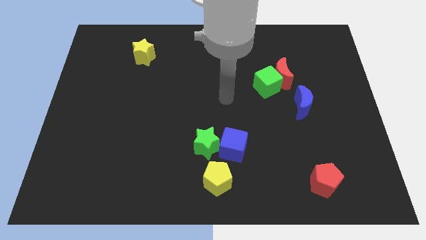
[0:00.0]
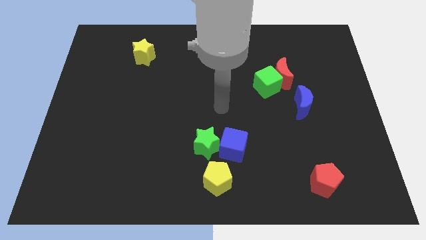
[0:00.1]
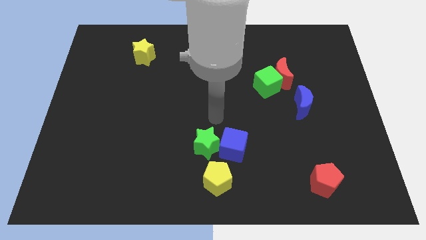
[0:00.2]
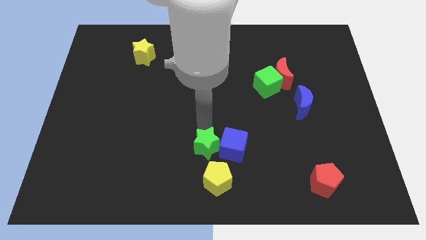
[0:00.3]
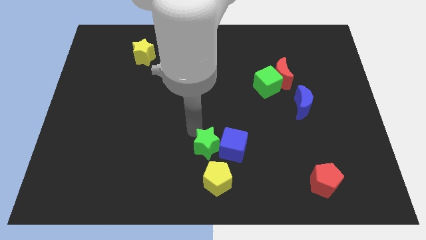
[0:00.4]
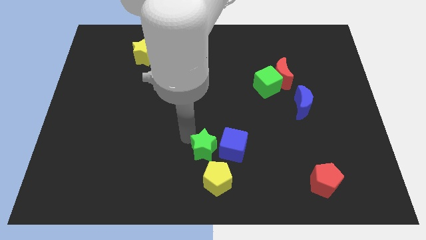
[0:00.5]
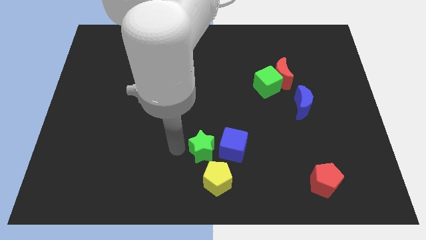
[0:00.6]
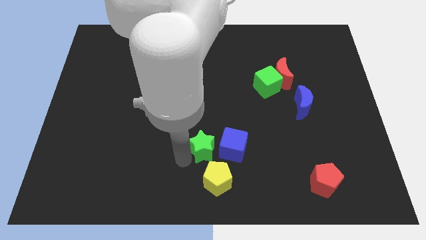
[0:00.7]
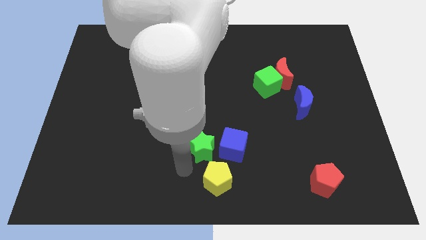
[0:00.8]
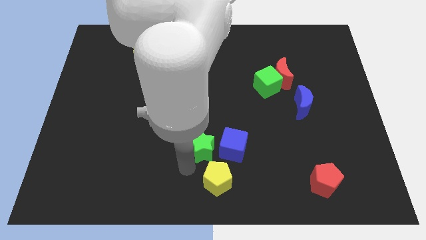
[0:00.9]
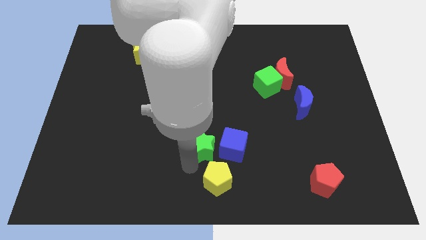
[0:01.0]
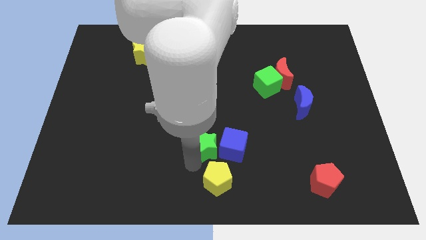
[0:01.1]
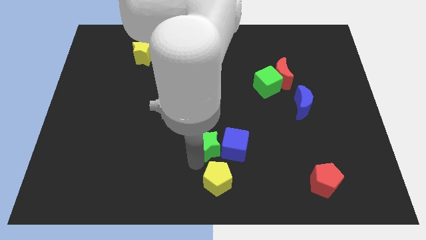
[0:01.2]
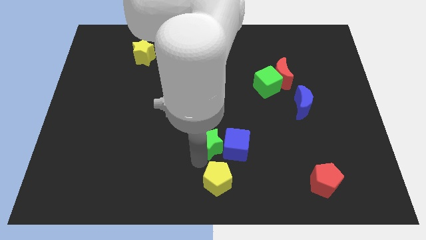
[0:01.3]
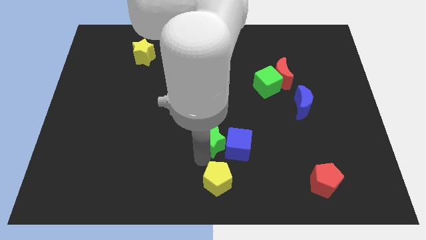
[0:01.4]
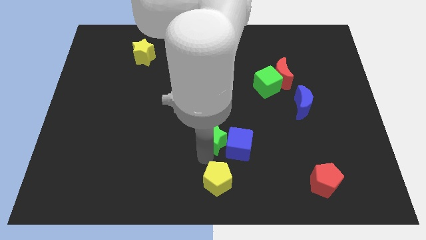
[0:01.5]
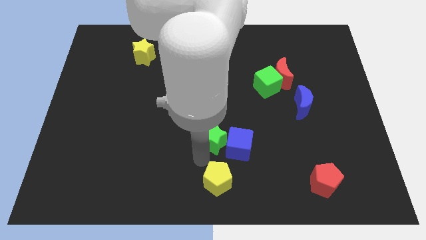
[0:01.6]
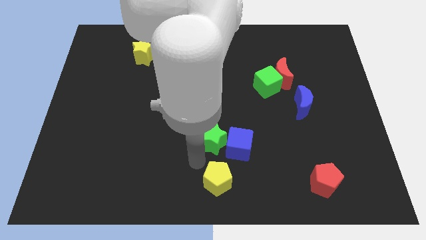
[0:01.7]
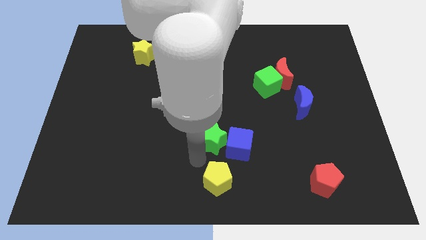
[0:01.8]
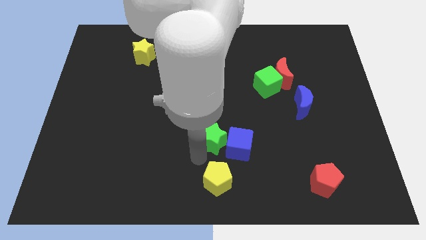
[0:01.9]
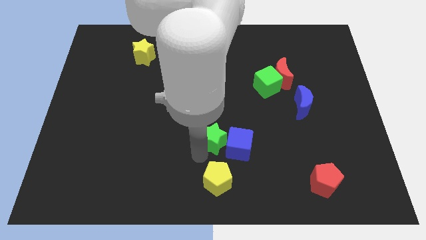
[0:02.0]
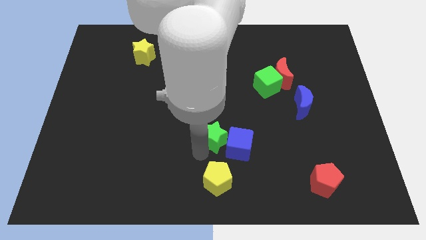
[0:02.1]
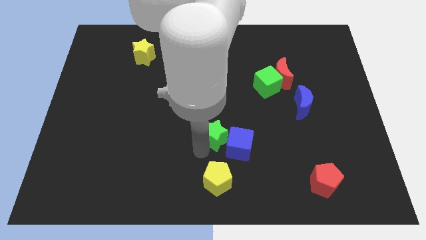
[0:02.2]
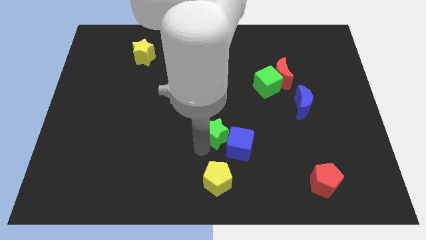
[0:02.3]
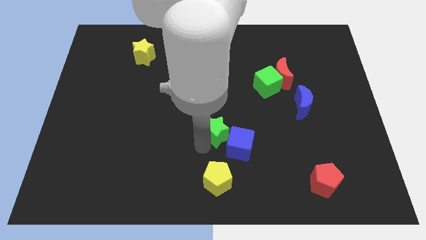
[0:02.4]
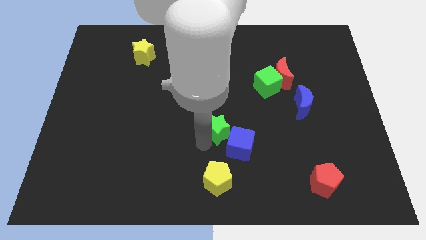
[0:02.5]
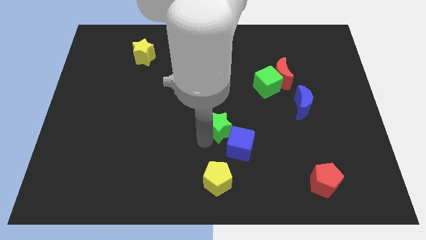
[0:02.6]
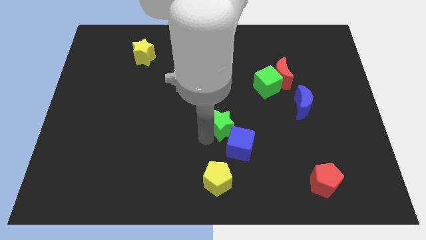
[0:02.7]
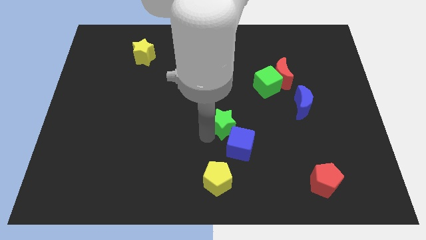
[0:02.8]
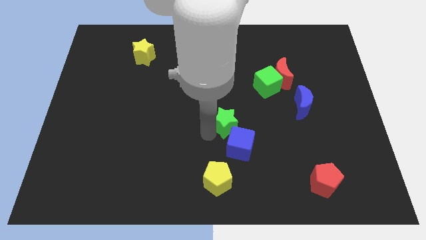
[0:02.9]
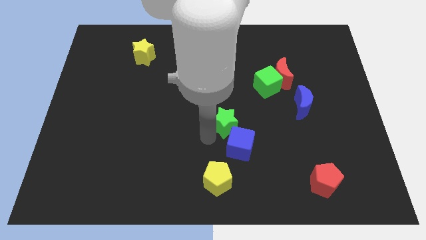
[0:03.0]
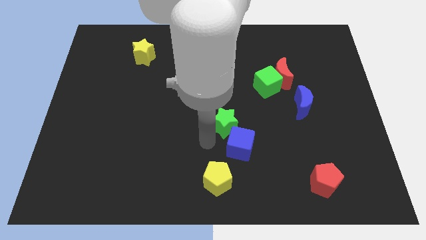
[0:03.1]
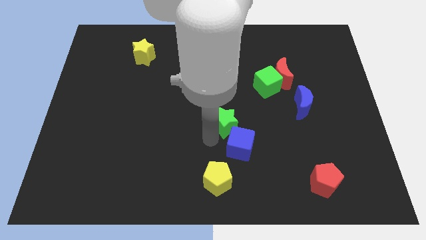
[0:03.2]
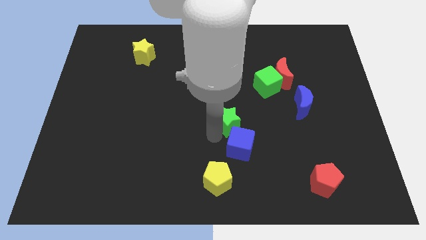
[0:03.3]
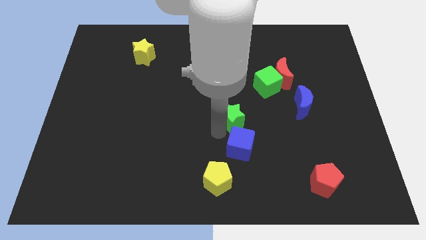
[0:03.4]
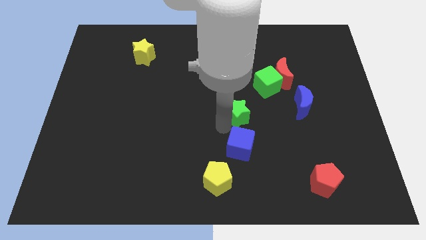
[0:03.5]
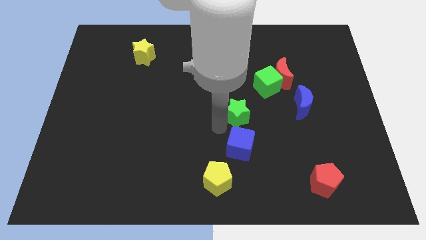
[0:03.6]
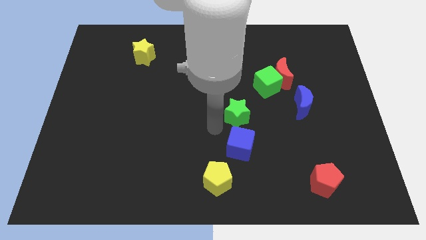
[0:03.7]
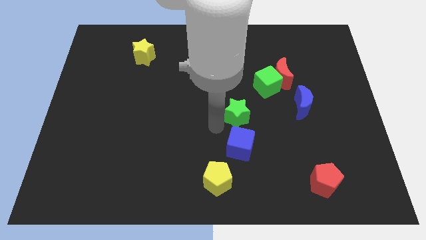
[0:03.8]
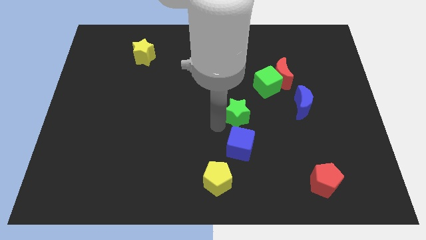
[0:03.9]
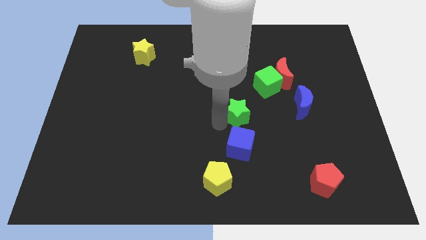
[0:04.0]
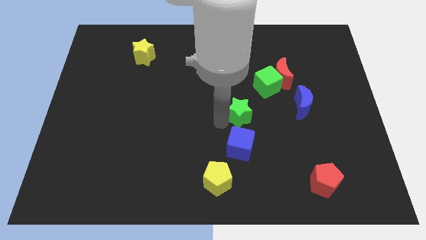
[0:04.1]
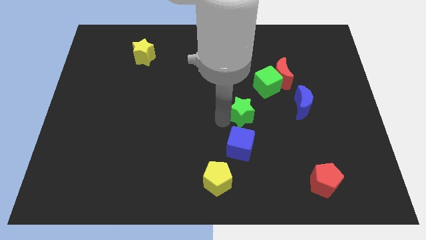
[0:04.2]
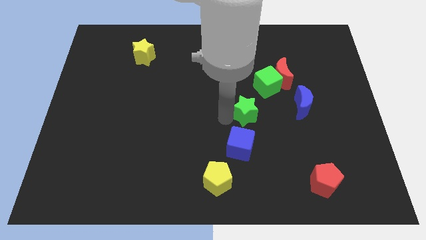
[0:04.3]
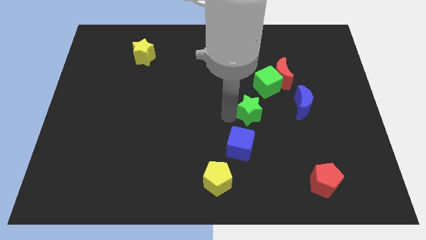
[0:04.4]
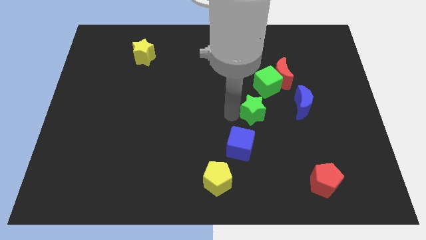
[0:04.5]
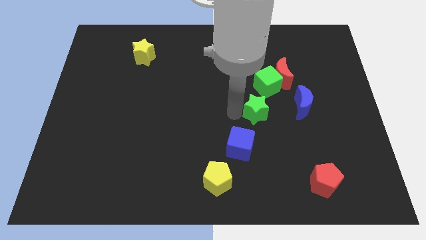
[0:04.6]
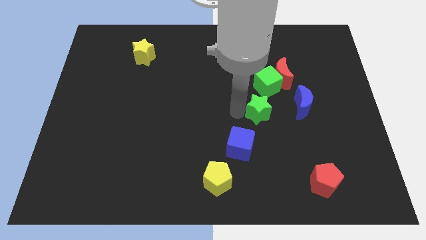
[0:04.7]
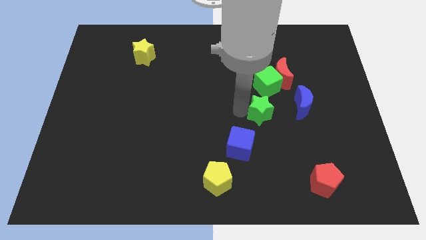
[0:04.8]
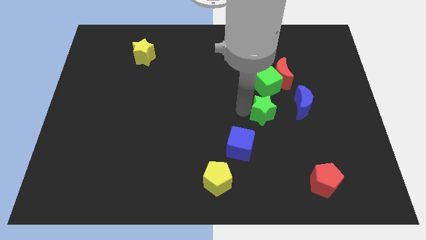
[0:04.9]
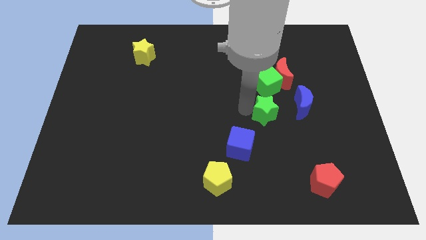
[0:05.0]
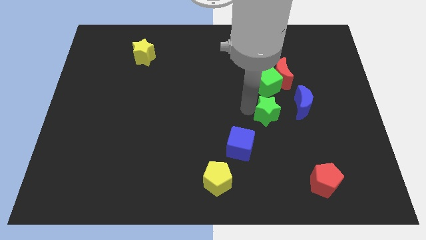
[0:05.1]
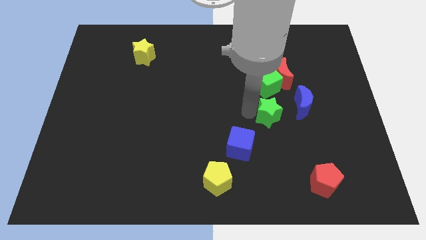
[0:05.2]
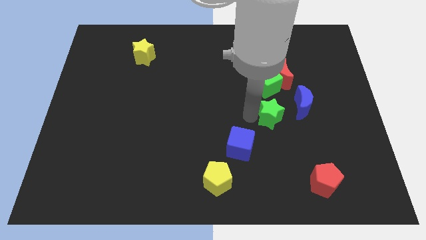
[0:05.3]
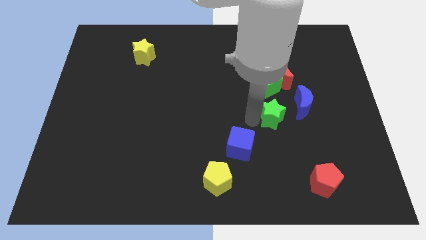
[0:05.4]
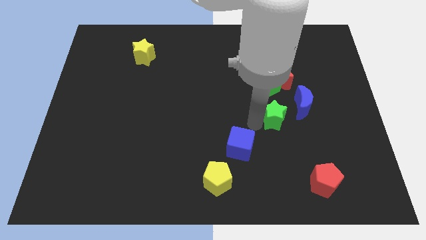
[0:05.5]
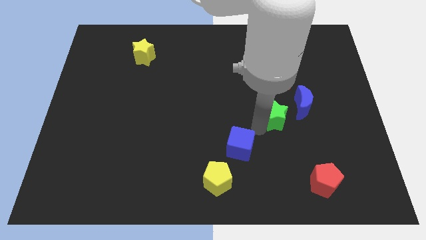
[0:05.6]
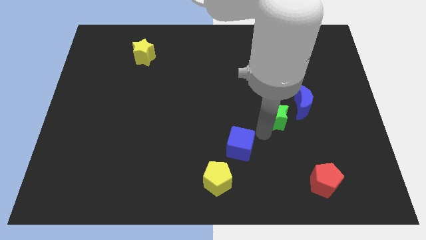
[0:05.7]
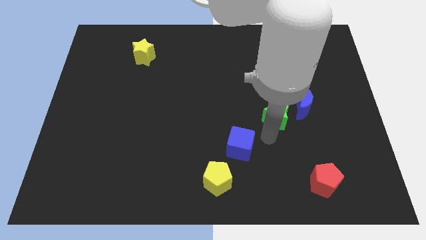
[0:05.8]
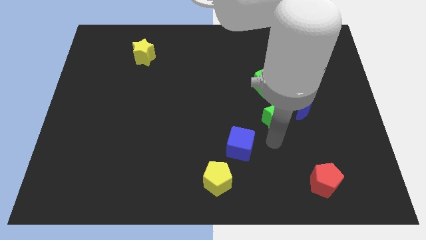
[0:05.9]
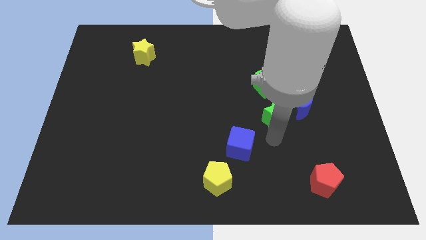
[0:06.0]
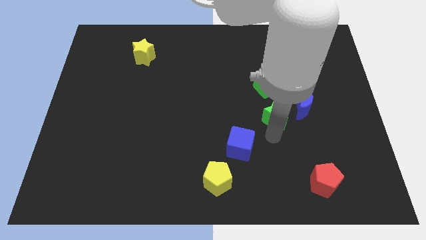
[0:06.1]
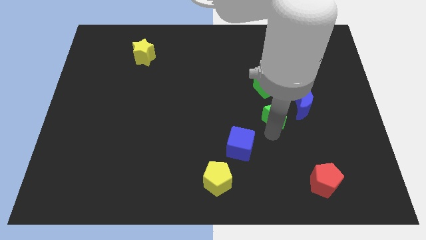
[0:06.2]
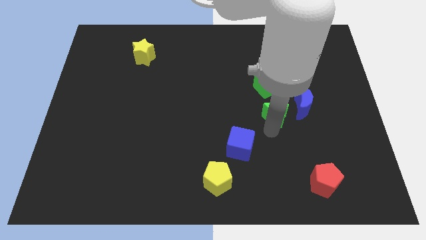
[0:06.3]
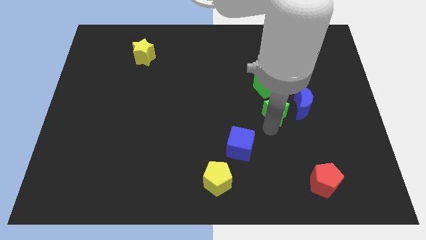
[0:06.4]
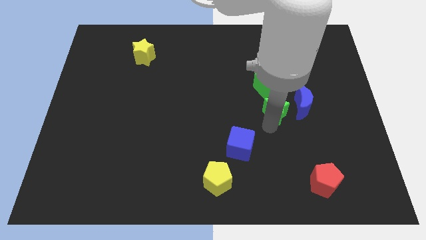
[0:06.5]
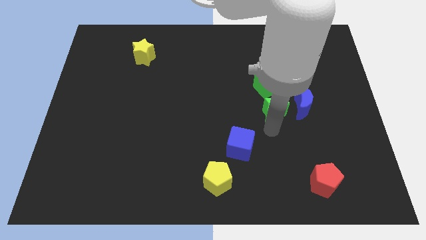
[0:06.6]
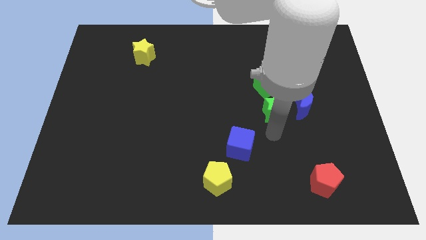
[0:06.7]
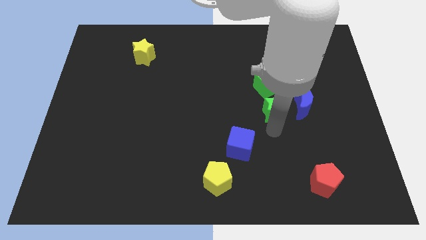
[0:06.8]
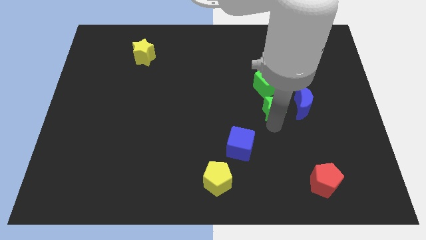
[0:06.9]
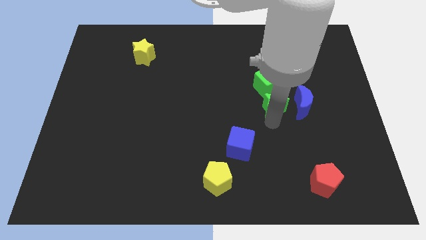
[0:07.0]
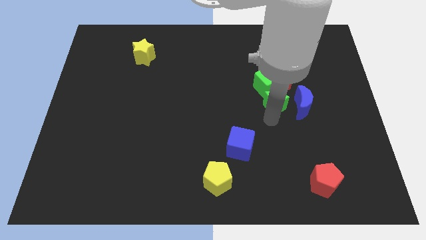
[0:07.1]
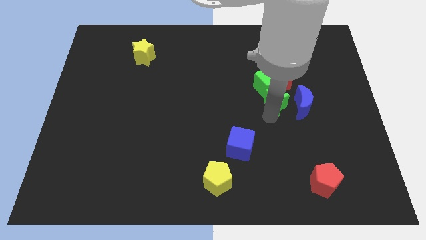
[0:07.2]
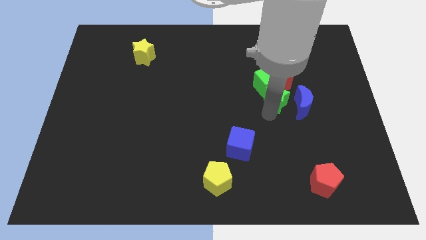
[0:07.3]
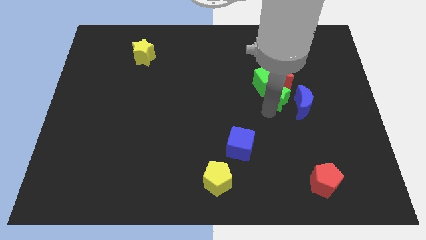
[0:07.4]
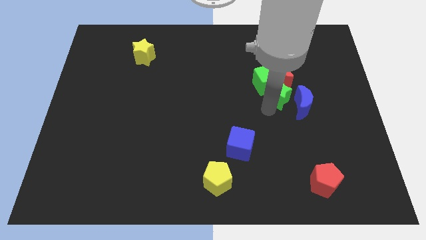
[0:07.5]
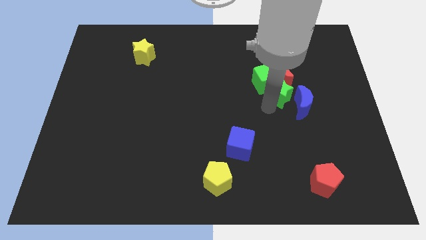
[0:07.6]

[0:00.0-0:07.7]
put the green star close to the red moon
